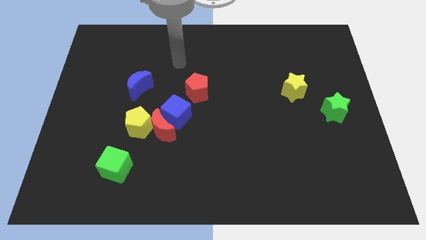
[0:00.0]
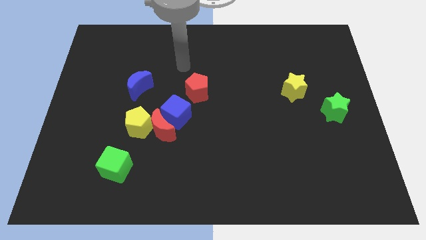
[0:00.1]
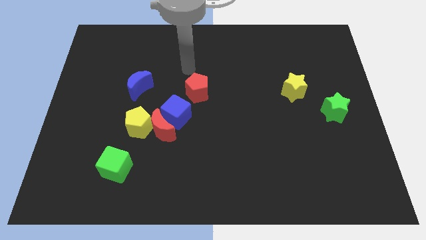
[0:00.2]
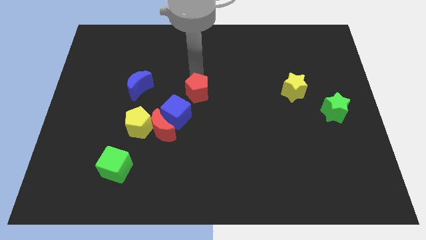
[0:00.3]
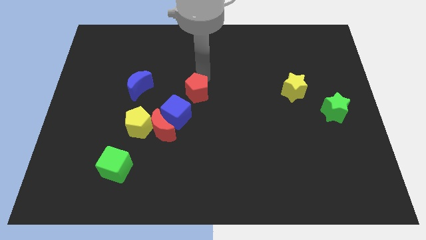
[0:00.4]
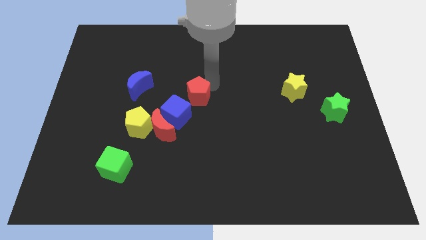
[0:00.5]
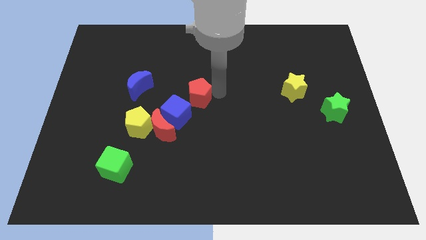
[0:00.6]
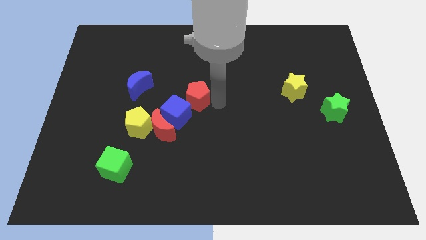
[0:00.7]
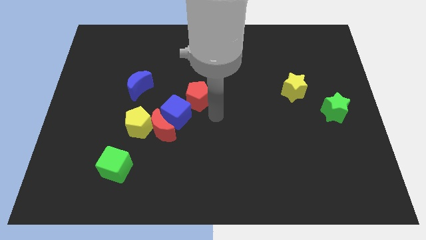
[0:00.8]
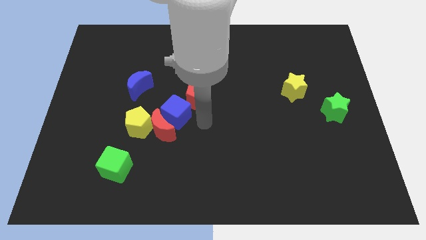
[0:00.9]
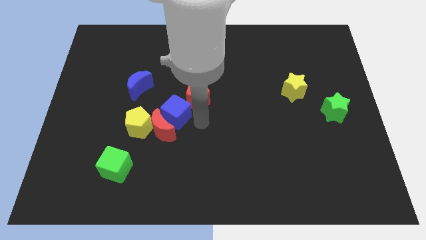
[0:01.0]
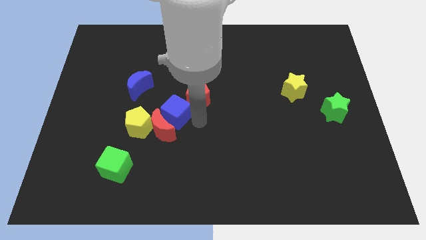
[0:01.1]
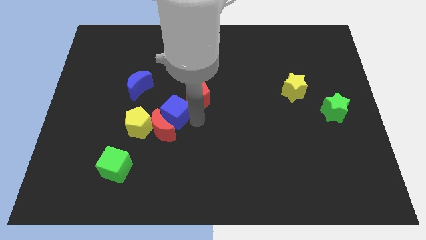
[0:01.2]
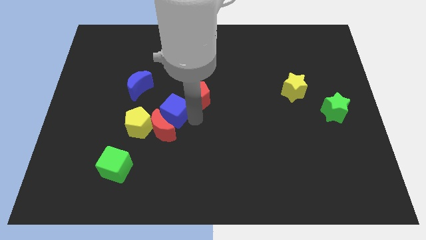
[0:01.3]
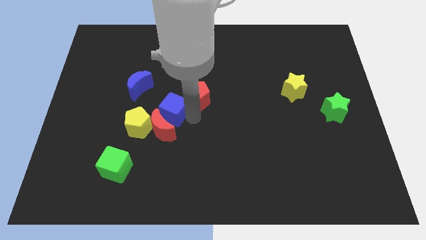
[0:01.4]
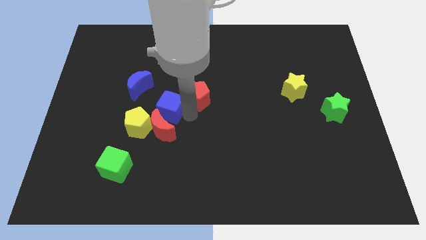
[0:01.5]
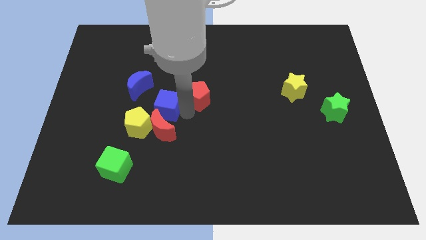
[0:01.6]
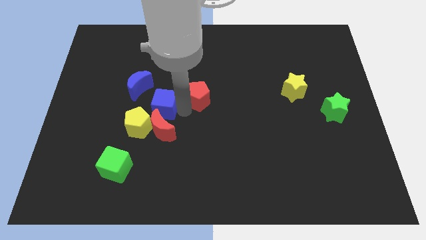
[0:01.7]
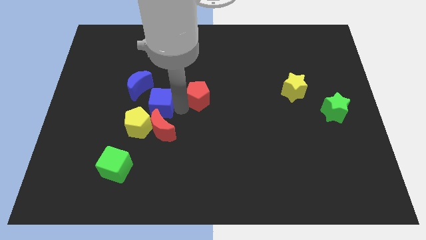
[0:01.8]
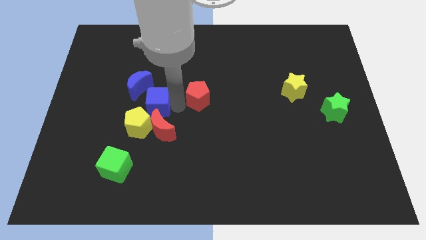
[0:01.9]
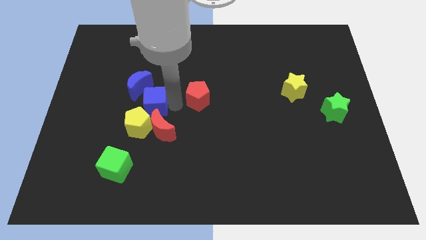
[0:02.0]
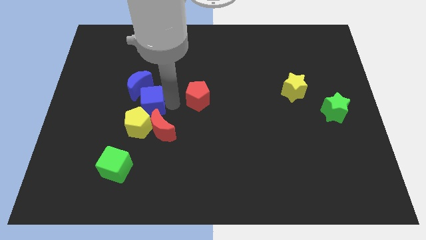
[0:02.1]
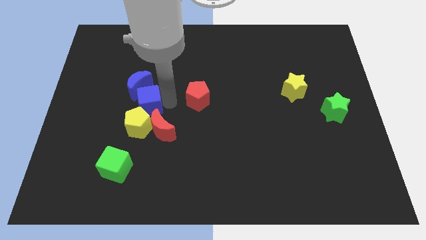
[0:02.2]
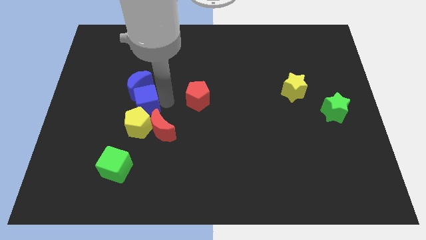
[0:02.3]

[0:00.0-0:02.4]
slightly move the blue cube to the left

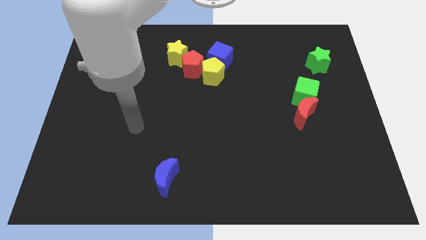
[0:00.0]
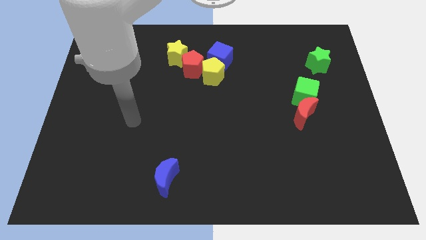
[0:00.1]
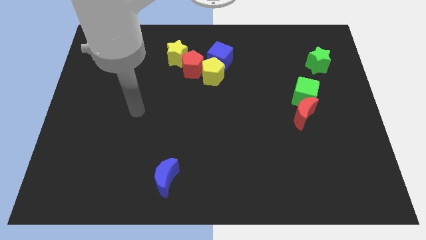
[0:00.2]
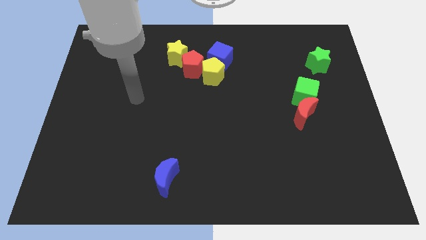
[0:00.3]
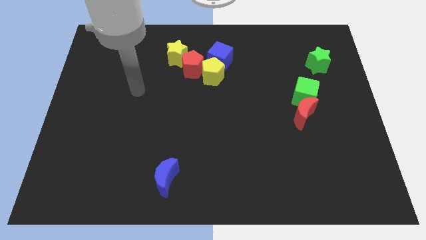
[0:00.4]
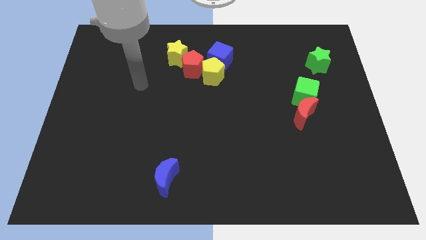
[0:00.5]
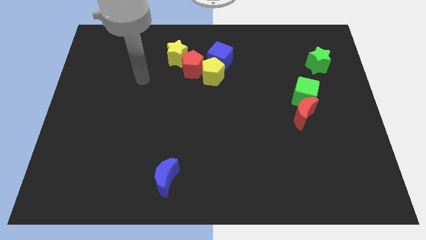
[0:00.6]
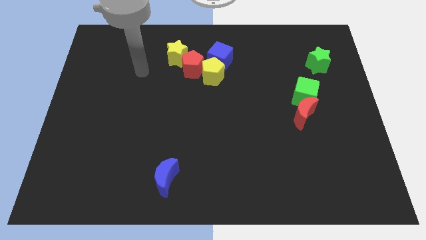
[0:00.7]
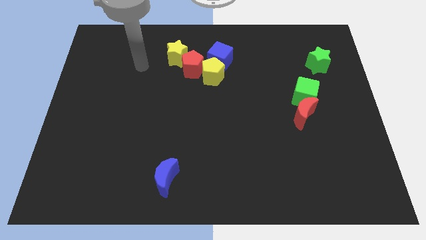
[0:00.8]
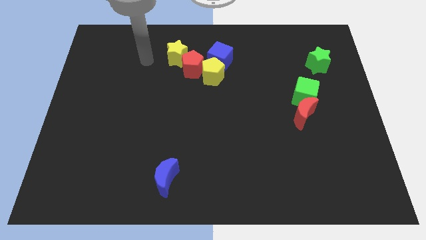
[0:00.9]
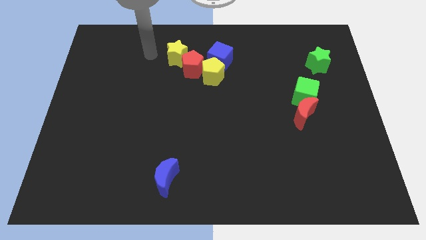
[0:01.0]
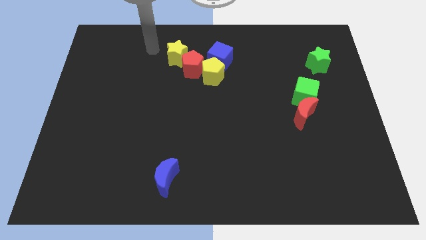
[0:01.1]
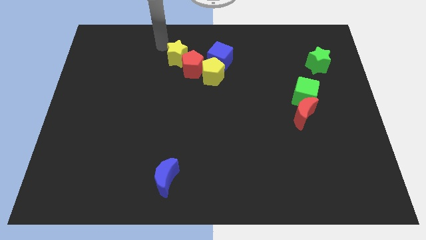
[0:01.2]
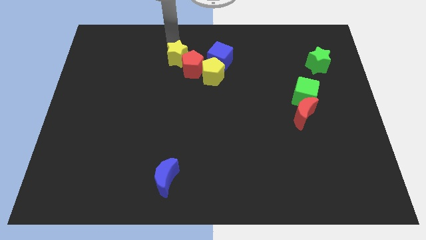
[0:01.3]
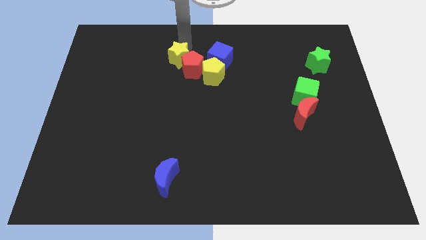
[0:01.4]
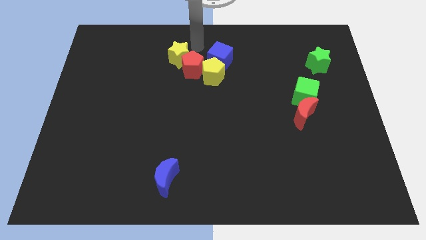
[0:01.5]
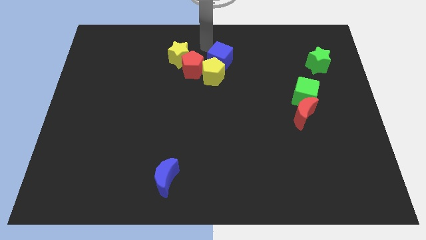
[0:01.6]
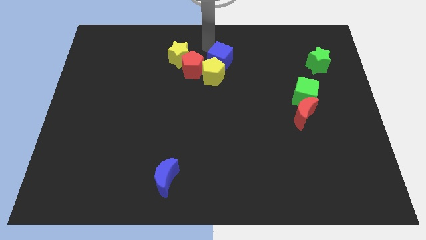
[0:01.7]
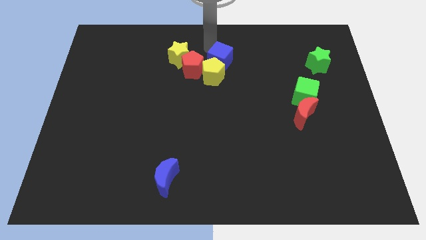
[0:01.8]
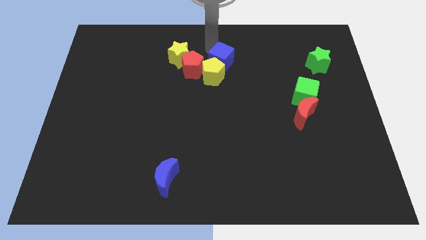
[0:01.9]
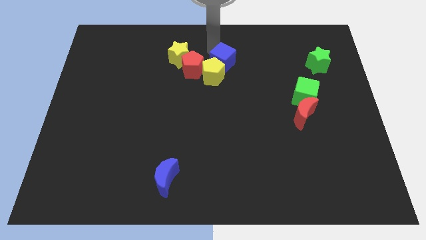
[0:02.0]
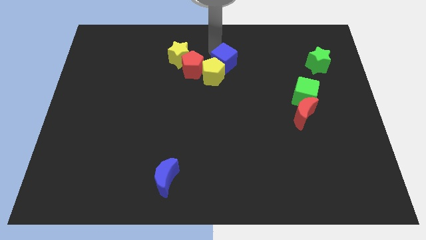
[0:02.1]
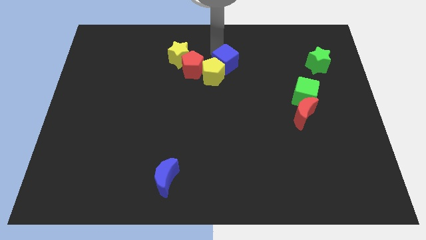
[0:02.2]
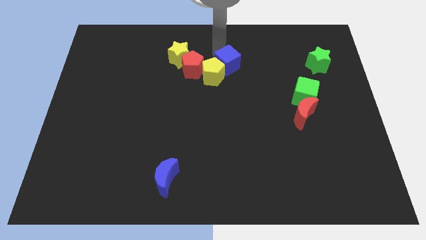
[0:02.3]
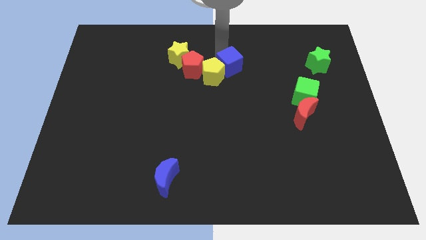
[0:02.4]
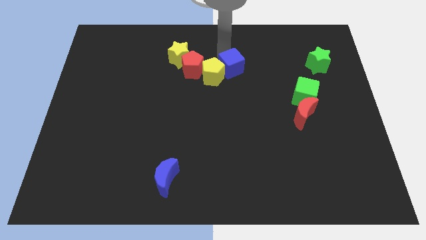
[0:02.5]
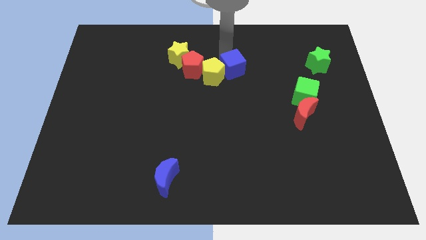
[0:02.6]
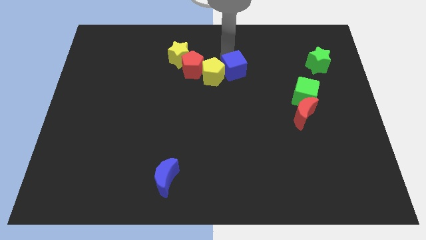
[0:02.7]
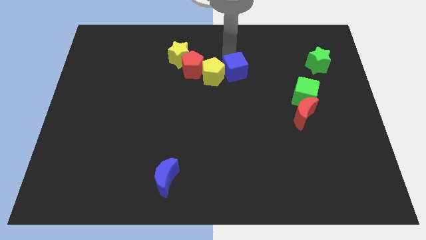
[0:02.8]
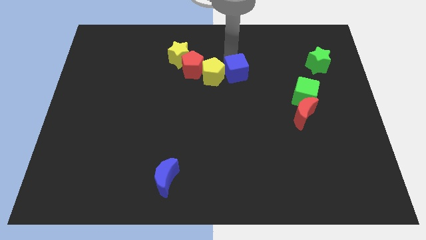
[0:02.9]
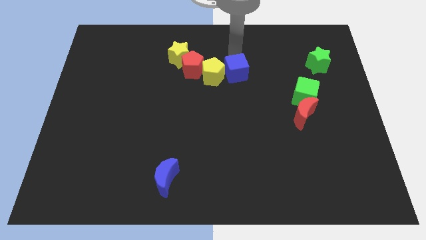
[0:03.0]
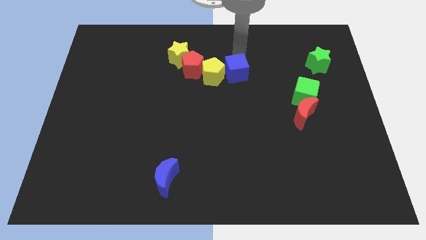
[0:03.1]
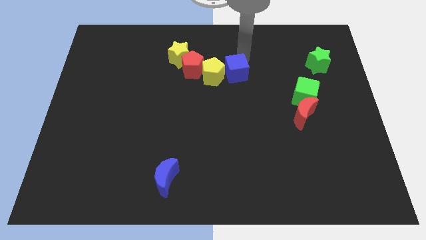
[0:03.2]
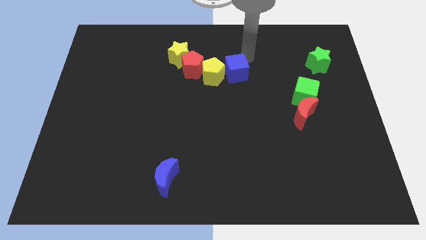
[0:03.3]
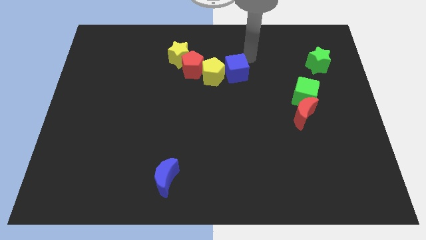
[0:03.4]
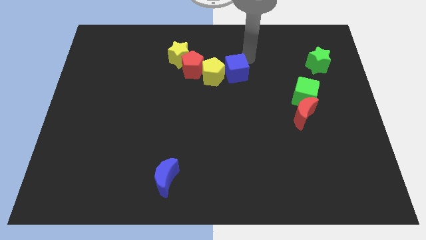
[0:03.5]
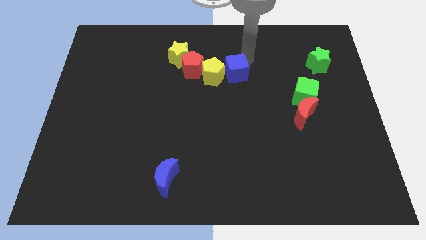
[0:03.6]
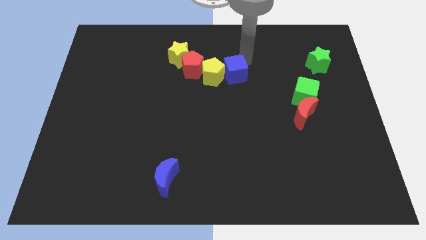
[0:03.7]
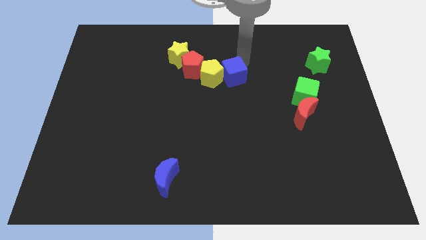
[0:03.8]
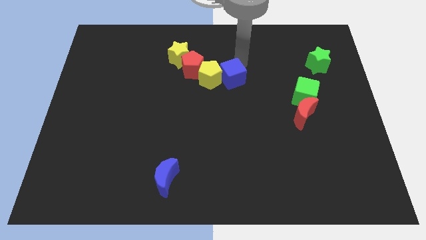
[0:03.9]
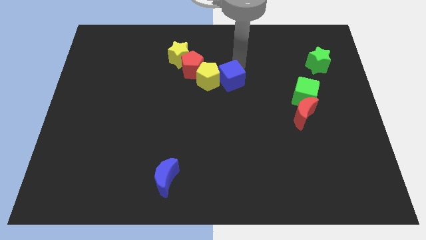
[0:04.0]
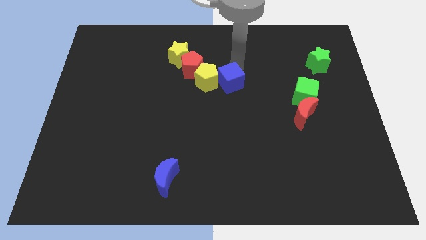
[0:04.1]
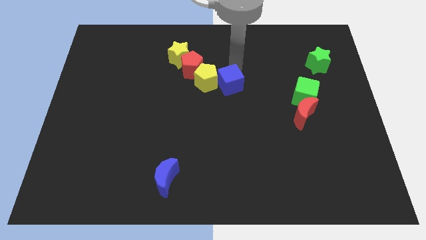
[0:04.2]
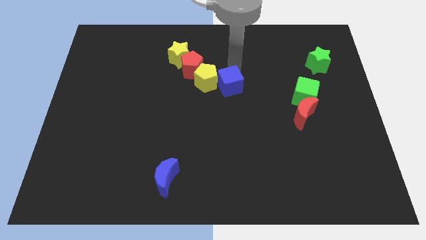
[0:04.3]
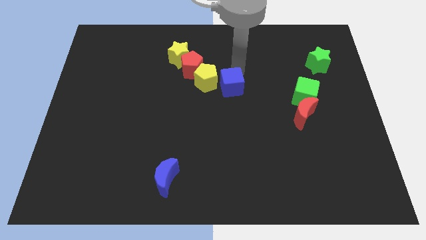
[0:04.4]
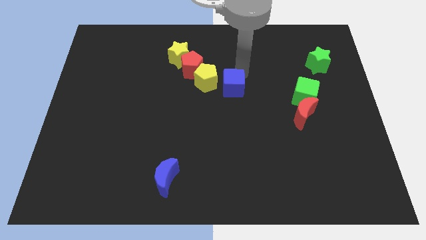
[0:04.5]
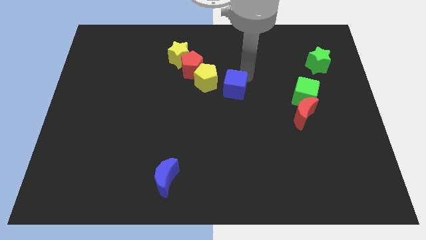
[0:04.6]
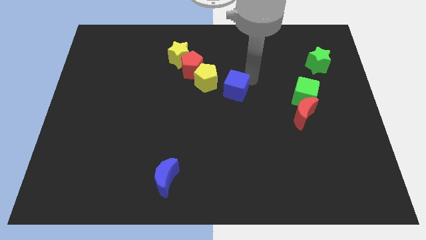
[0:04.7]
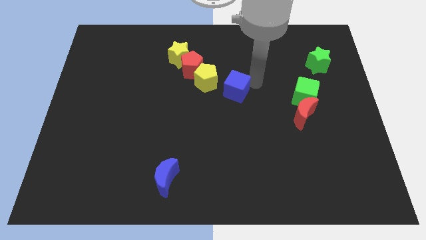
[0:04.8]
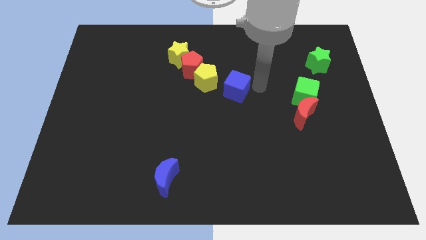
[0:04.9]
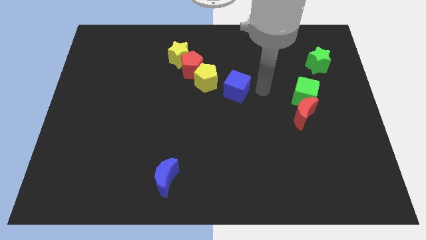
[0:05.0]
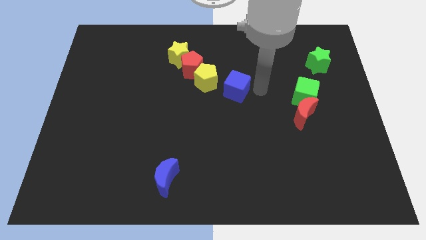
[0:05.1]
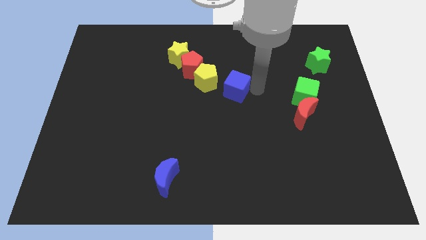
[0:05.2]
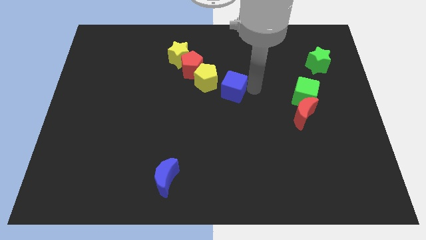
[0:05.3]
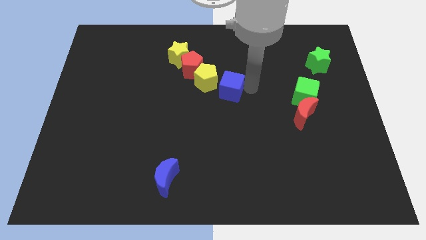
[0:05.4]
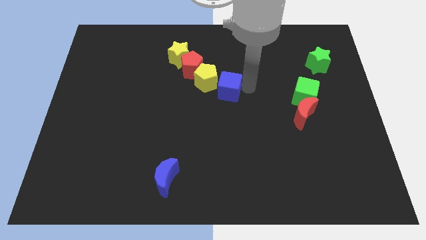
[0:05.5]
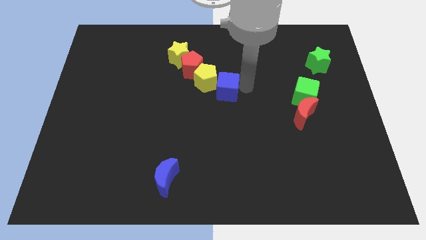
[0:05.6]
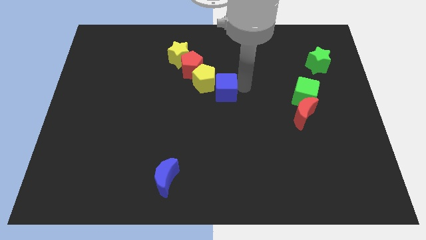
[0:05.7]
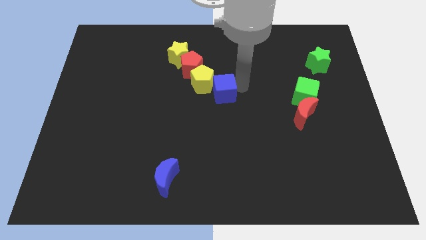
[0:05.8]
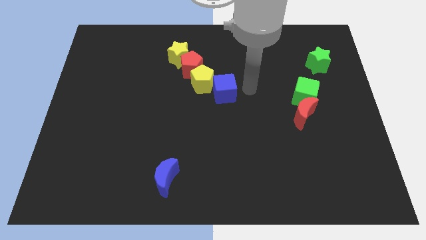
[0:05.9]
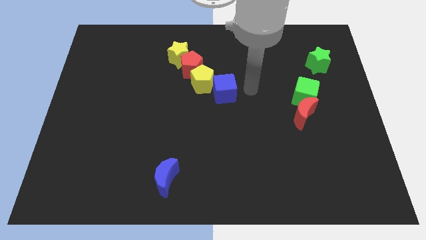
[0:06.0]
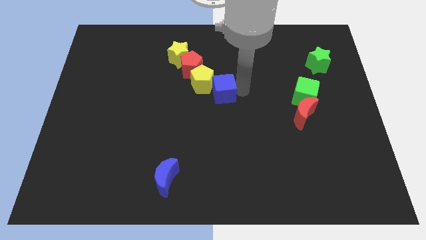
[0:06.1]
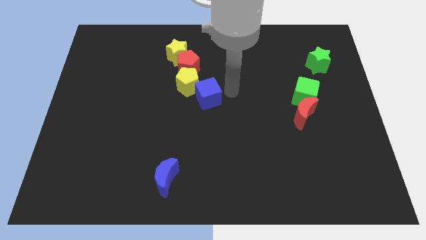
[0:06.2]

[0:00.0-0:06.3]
slide the blue cube down and left diagonally somewhat
